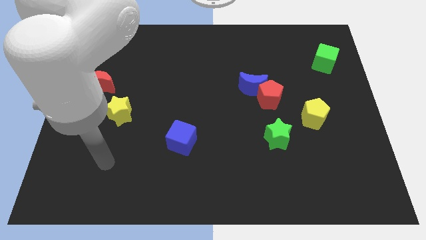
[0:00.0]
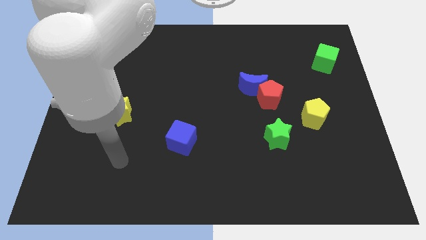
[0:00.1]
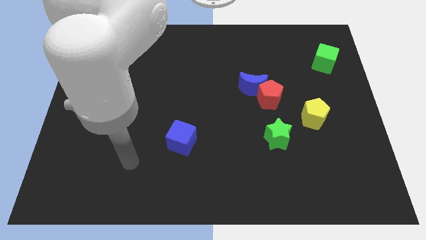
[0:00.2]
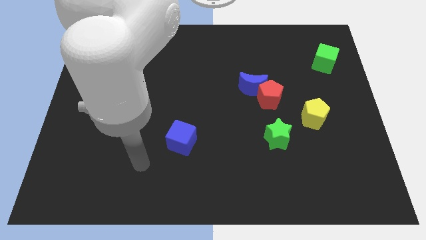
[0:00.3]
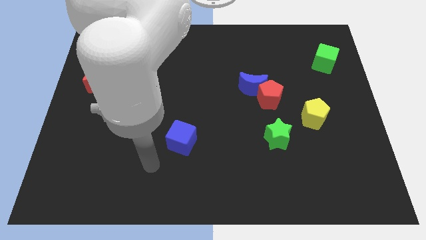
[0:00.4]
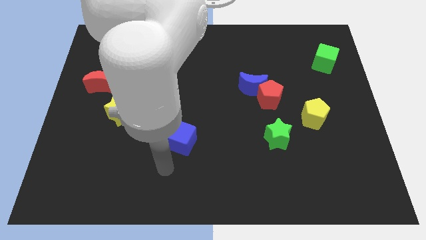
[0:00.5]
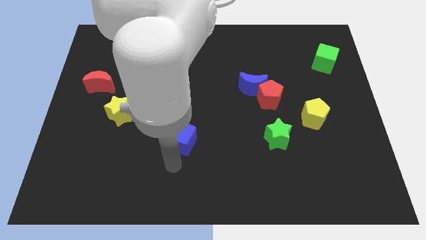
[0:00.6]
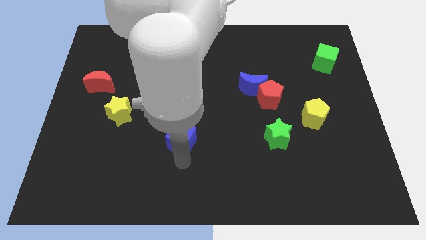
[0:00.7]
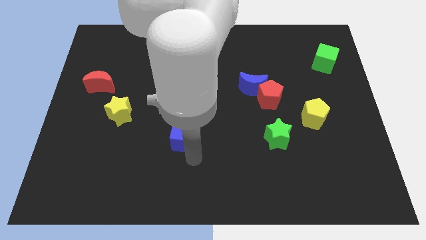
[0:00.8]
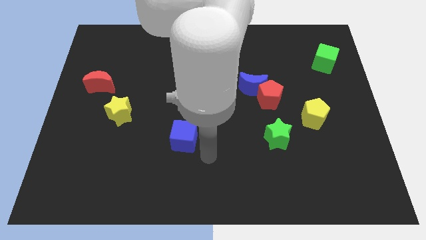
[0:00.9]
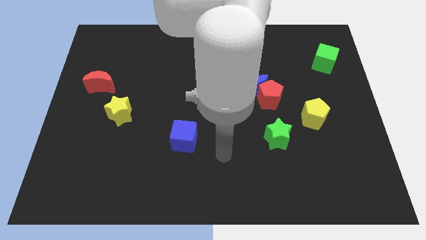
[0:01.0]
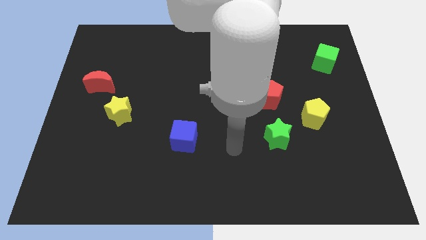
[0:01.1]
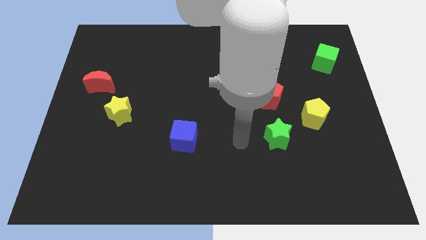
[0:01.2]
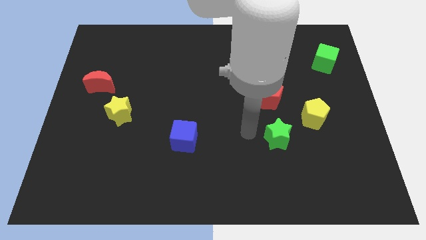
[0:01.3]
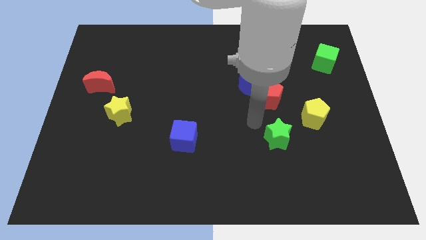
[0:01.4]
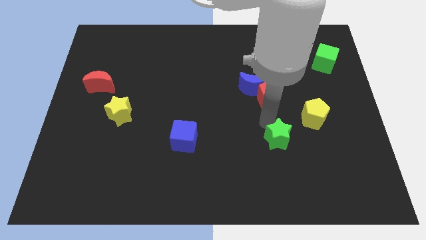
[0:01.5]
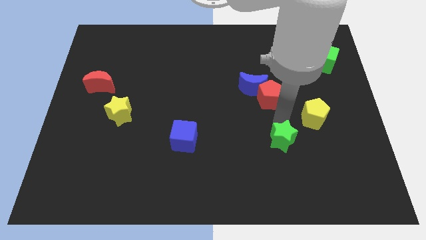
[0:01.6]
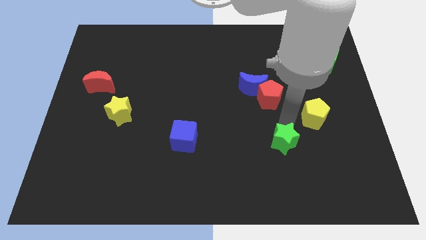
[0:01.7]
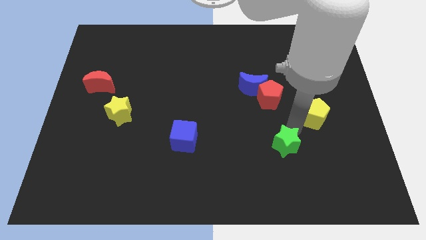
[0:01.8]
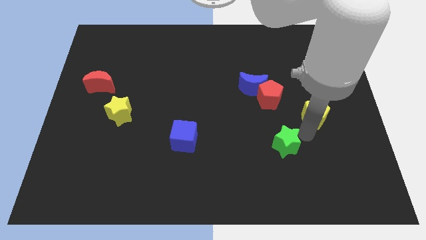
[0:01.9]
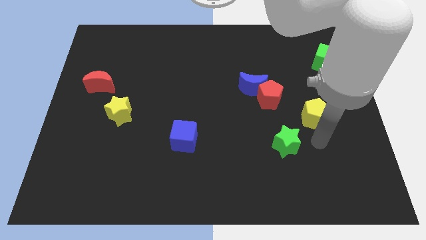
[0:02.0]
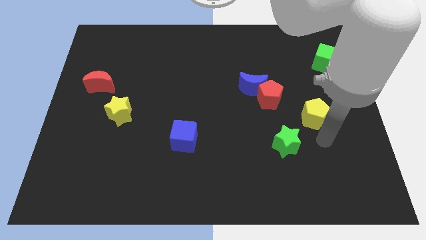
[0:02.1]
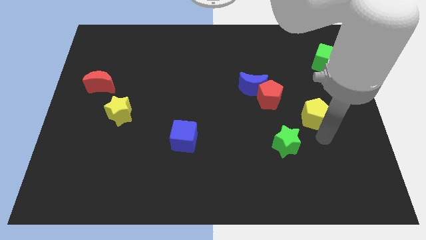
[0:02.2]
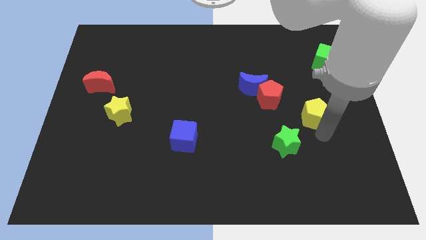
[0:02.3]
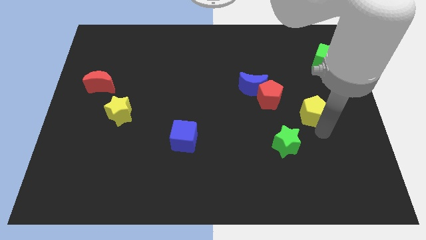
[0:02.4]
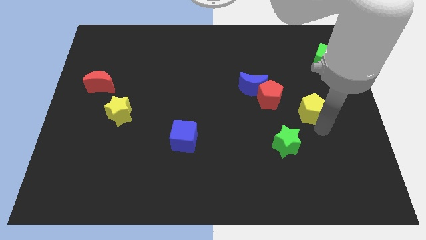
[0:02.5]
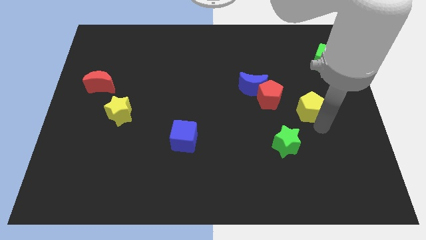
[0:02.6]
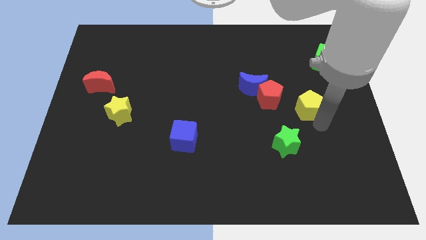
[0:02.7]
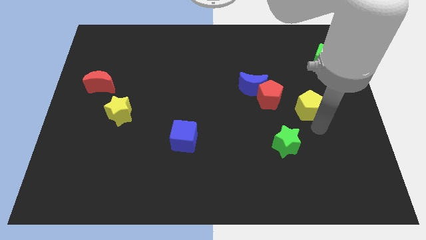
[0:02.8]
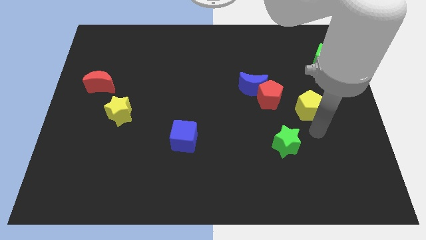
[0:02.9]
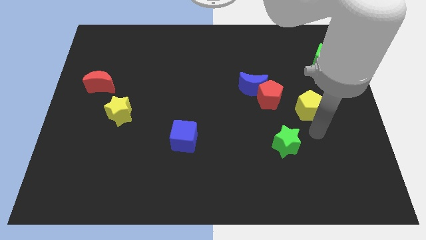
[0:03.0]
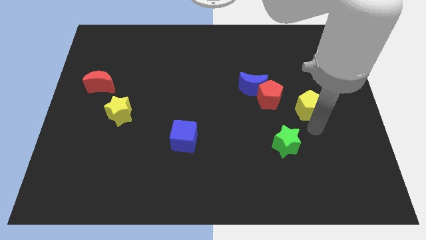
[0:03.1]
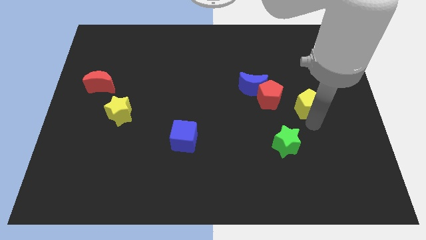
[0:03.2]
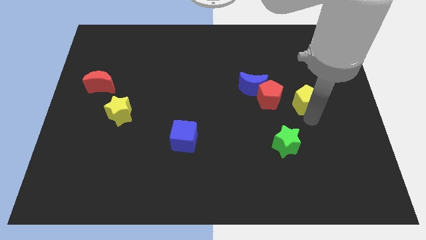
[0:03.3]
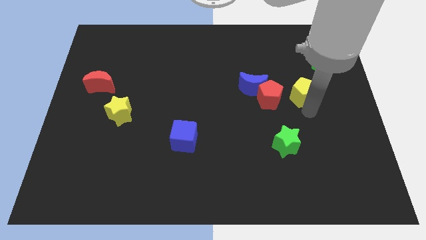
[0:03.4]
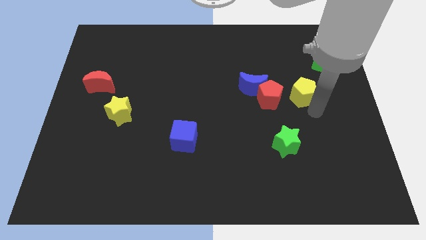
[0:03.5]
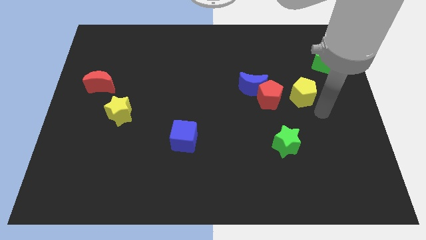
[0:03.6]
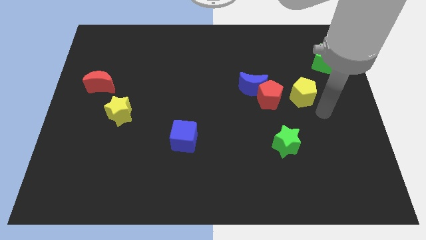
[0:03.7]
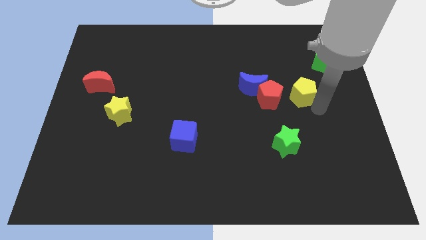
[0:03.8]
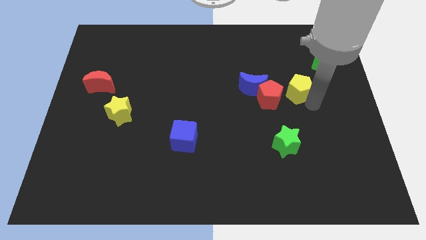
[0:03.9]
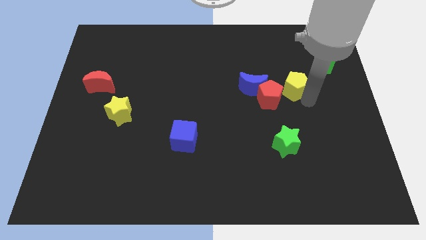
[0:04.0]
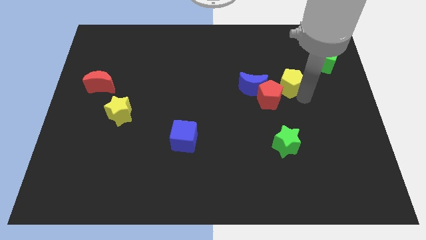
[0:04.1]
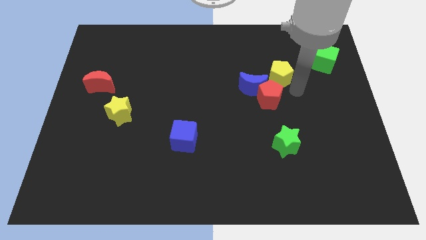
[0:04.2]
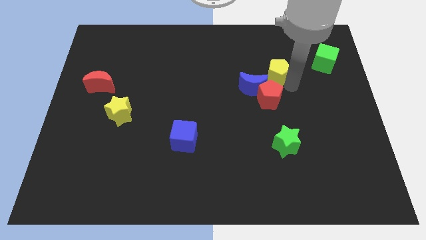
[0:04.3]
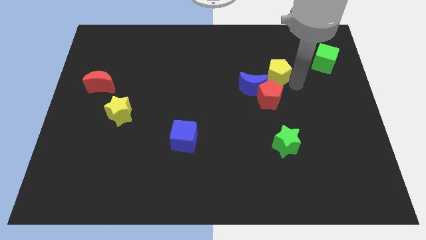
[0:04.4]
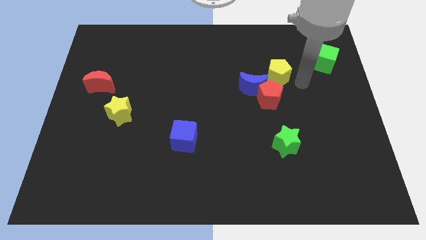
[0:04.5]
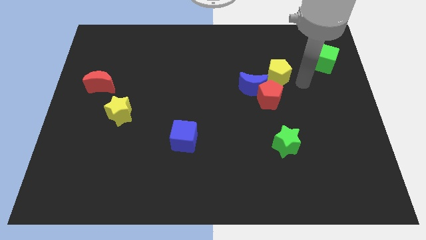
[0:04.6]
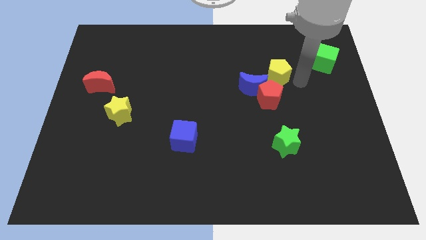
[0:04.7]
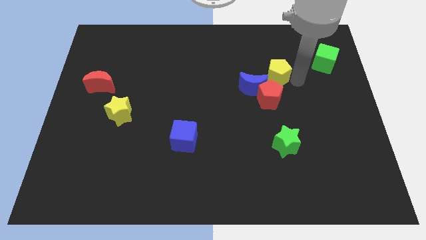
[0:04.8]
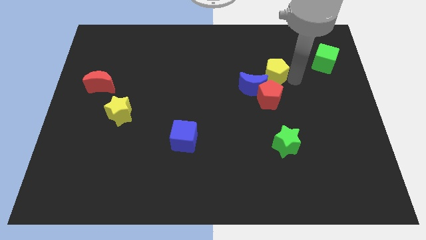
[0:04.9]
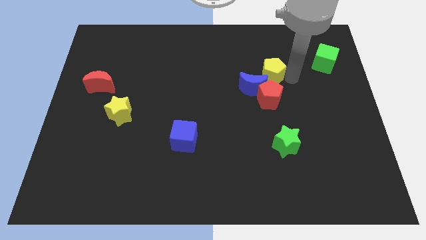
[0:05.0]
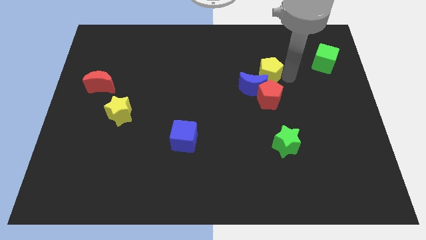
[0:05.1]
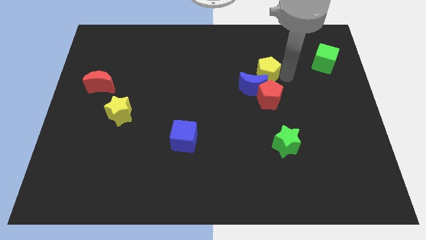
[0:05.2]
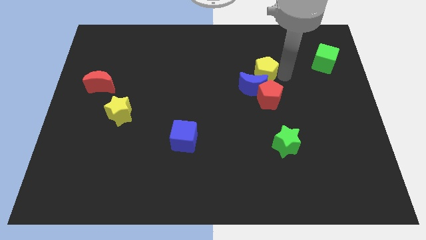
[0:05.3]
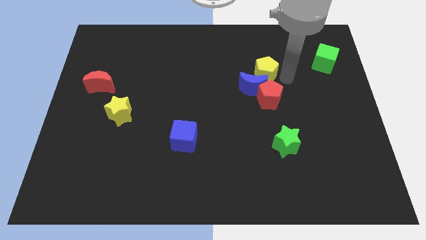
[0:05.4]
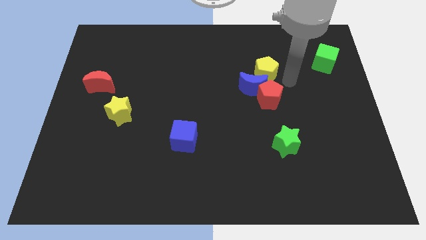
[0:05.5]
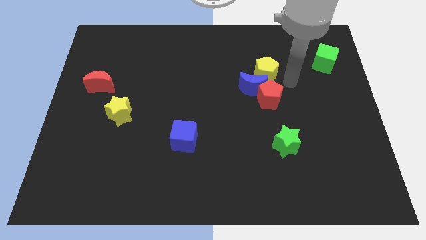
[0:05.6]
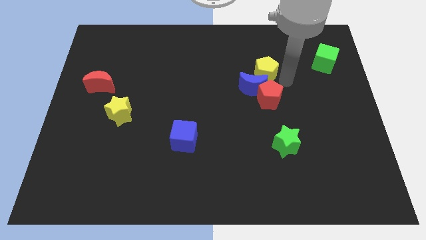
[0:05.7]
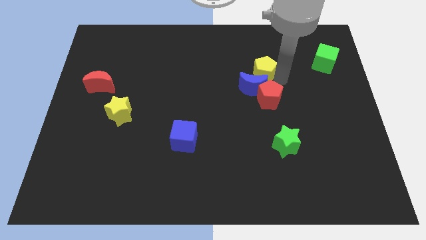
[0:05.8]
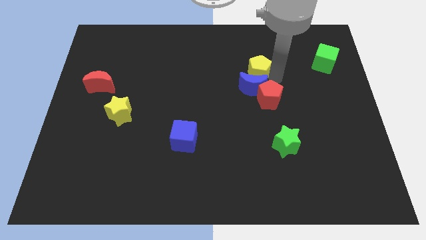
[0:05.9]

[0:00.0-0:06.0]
slide the yellow pentagon to the top left of the red pentagon

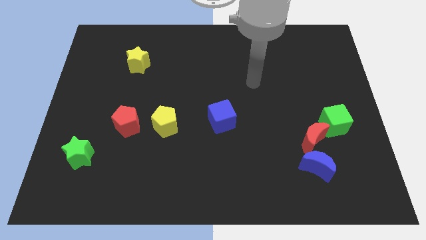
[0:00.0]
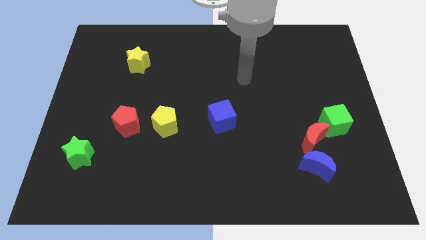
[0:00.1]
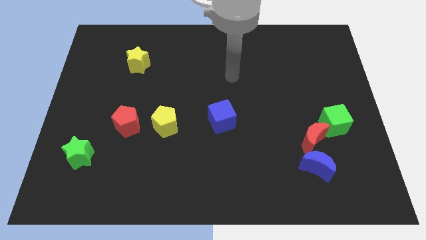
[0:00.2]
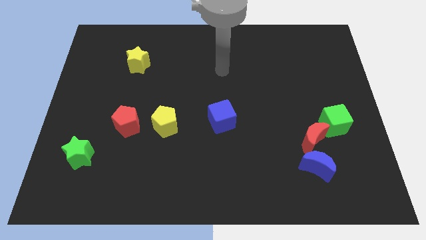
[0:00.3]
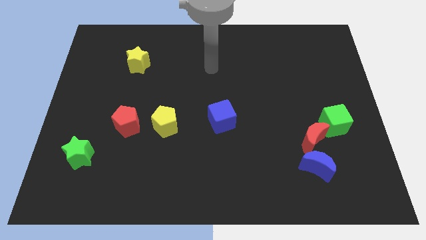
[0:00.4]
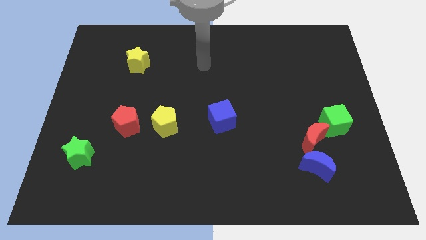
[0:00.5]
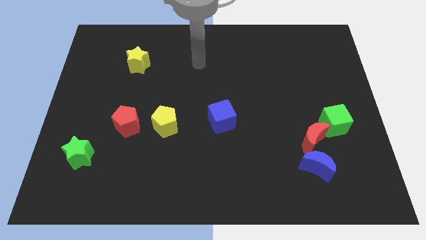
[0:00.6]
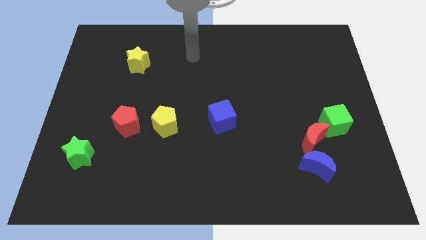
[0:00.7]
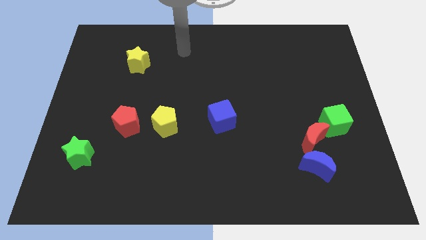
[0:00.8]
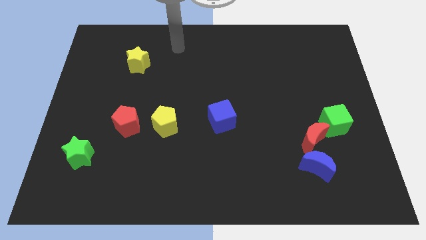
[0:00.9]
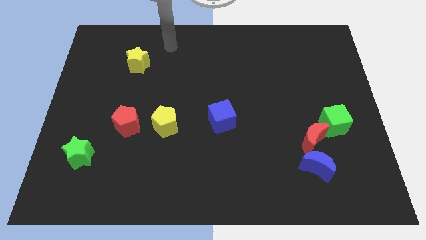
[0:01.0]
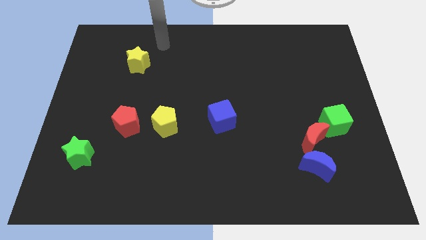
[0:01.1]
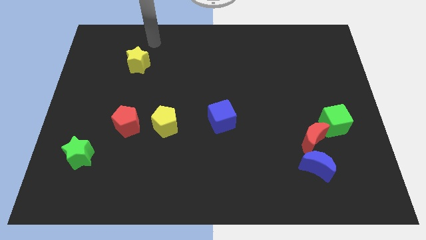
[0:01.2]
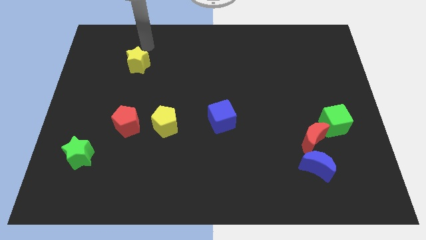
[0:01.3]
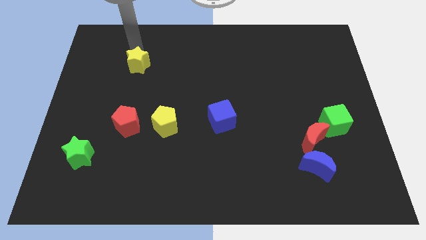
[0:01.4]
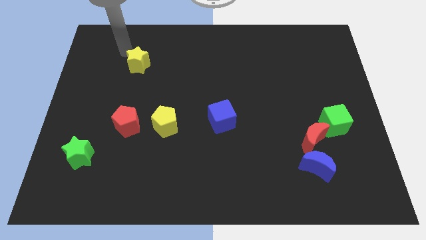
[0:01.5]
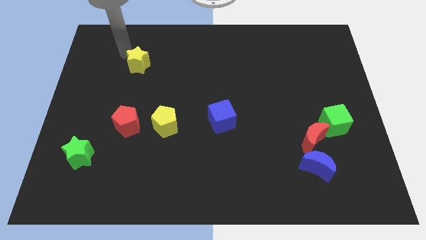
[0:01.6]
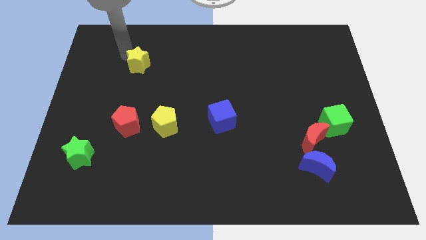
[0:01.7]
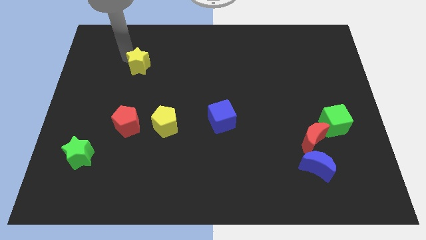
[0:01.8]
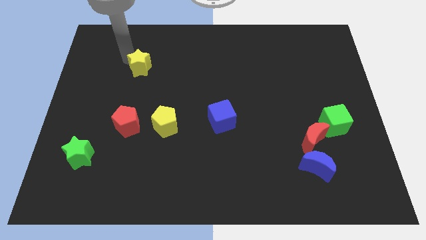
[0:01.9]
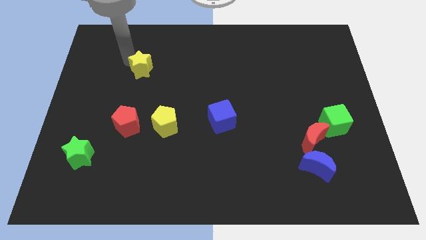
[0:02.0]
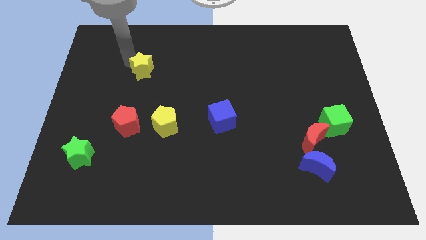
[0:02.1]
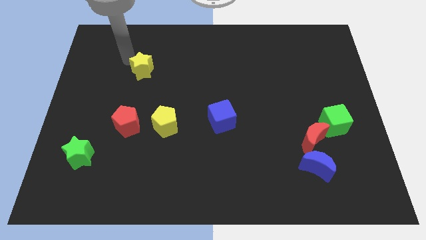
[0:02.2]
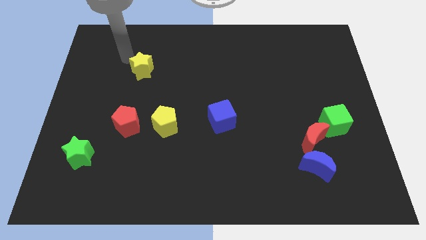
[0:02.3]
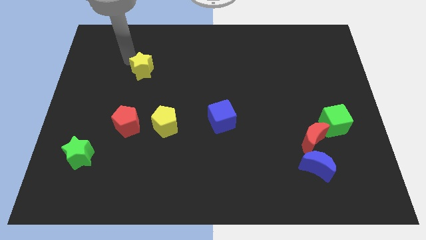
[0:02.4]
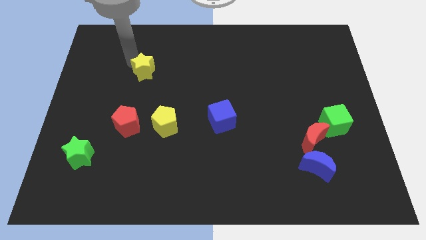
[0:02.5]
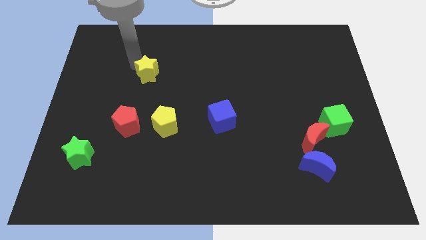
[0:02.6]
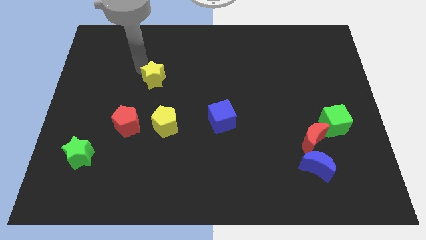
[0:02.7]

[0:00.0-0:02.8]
push the yellow star to the top side of the yellow pentagon
